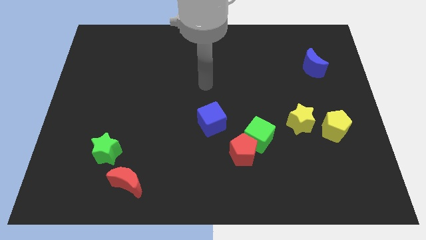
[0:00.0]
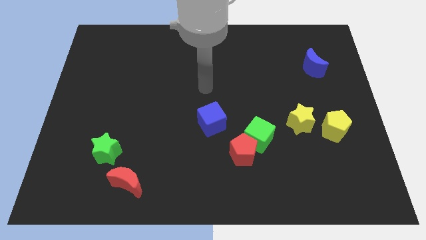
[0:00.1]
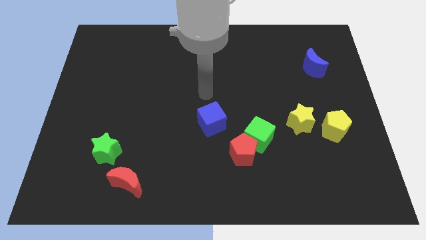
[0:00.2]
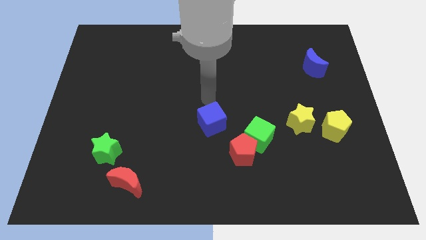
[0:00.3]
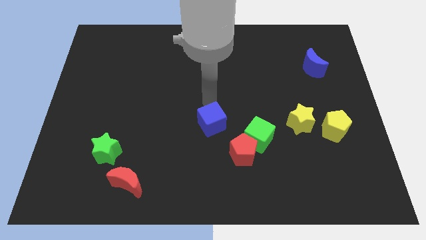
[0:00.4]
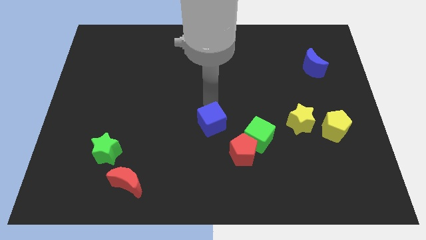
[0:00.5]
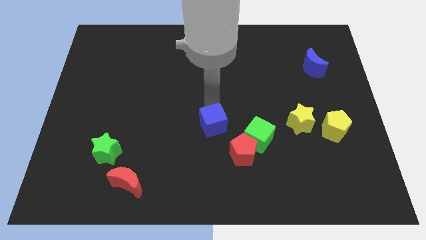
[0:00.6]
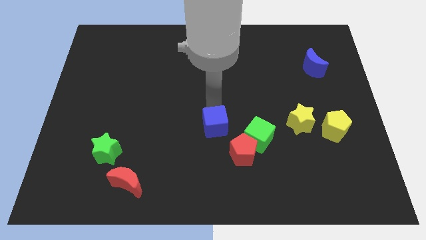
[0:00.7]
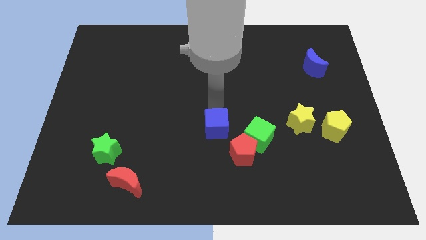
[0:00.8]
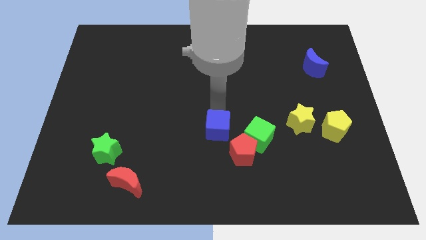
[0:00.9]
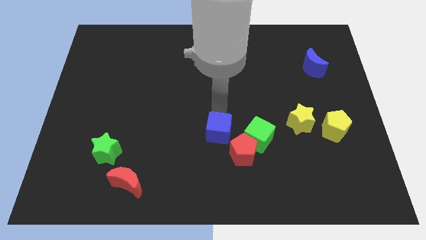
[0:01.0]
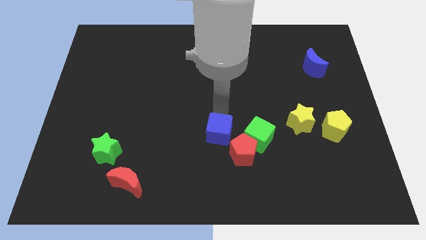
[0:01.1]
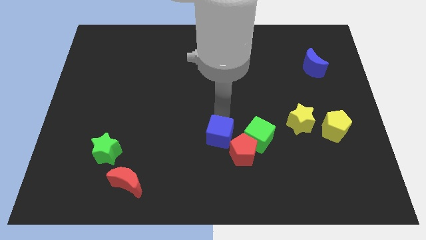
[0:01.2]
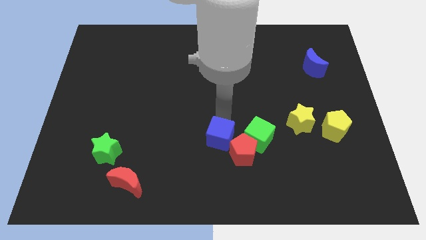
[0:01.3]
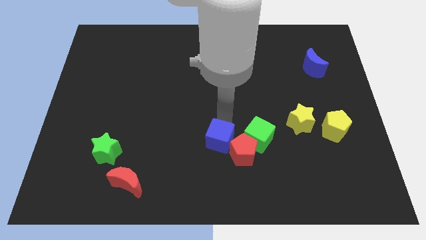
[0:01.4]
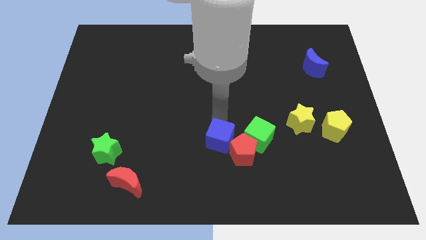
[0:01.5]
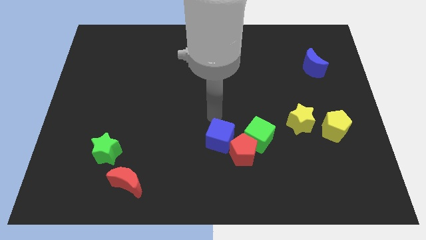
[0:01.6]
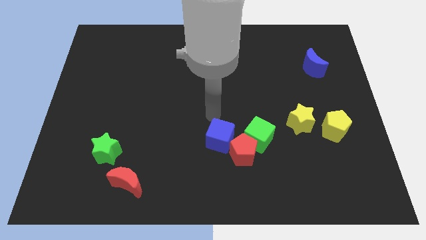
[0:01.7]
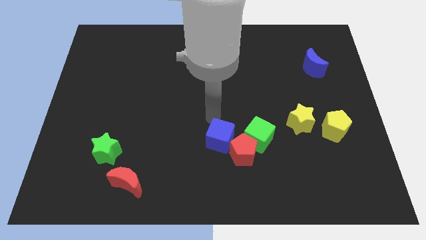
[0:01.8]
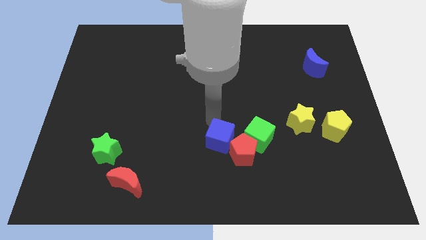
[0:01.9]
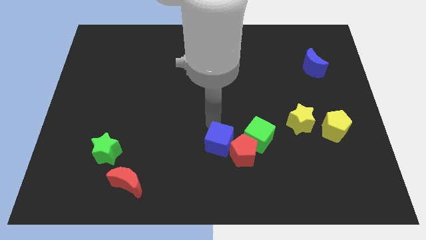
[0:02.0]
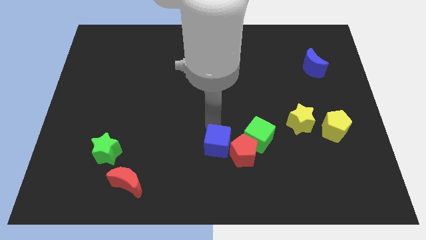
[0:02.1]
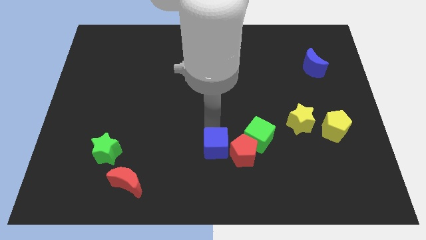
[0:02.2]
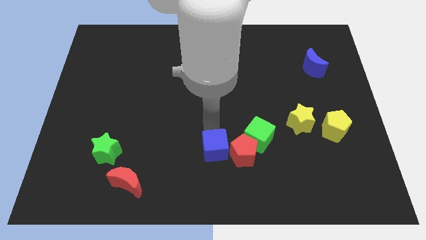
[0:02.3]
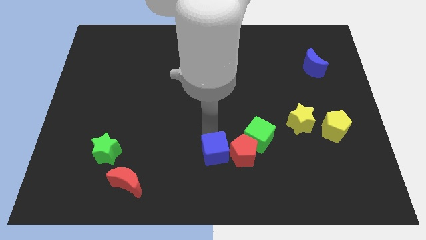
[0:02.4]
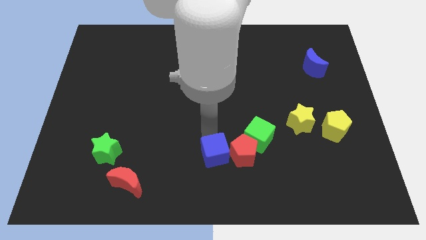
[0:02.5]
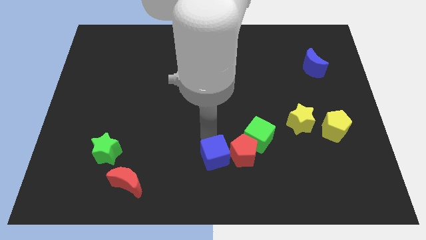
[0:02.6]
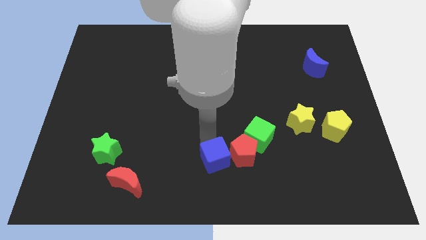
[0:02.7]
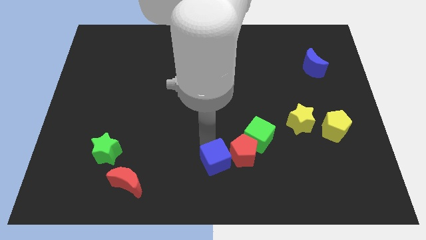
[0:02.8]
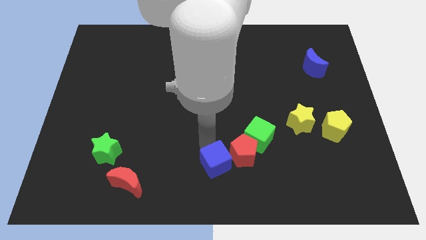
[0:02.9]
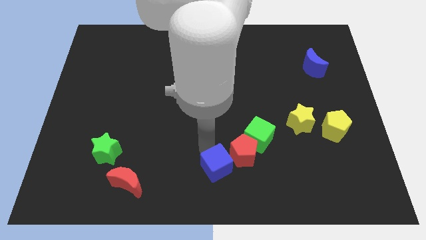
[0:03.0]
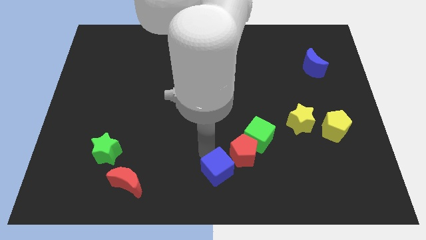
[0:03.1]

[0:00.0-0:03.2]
push the blue cube down and then to the right a little

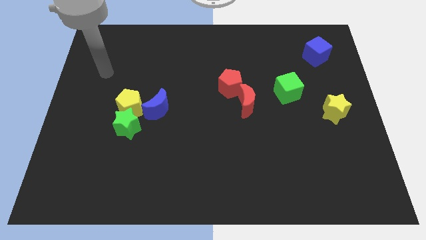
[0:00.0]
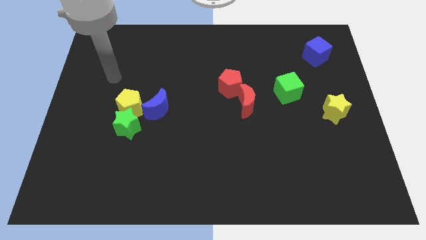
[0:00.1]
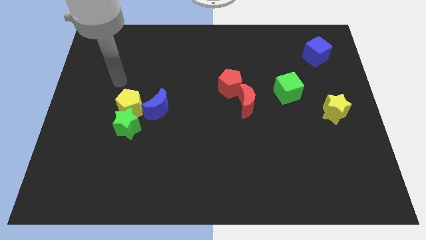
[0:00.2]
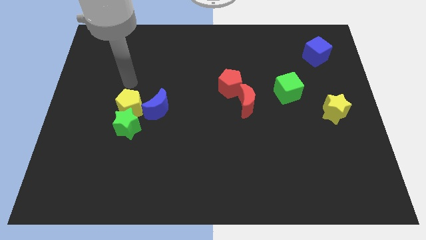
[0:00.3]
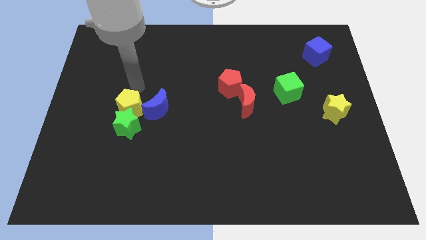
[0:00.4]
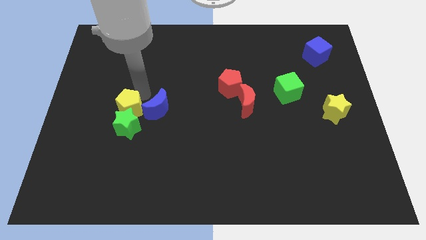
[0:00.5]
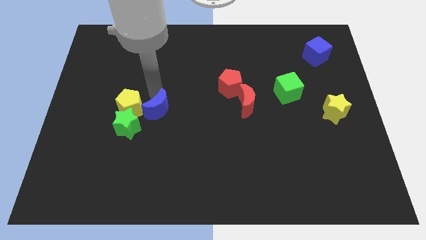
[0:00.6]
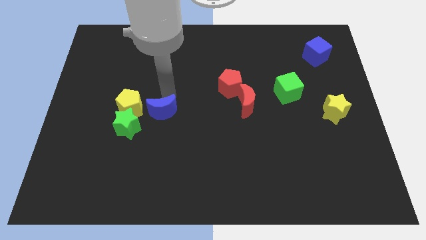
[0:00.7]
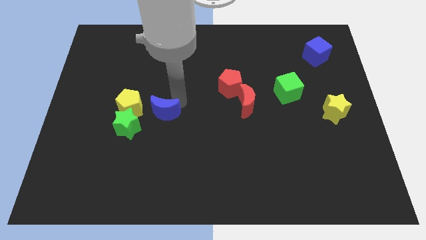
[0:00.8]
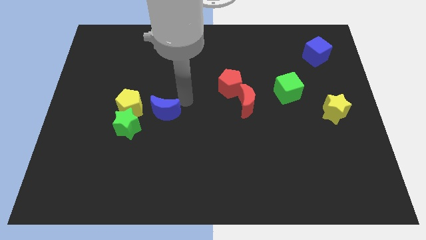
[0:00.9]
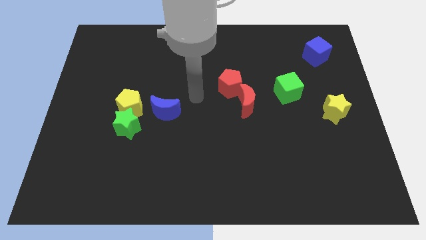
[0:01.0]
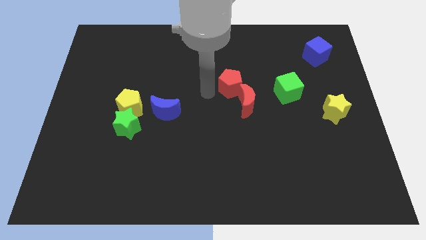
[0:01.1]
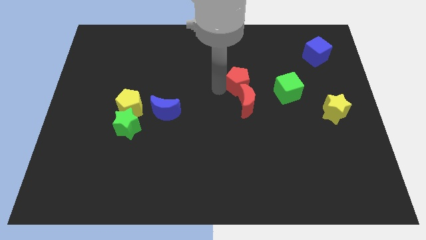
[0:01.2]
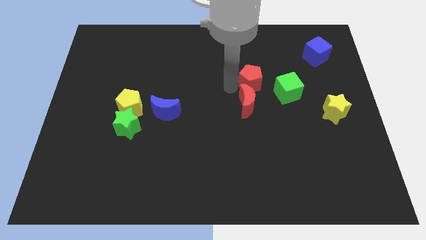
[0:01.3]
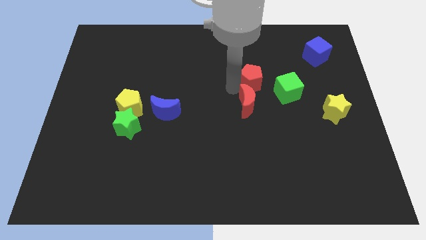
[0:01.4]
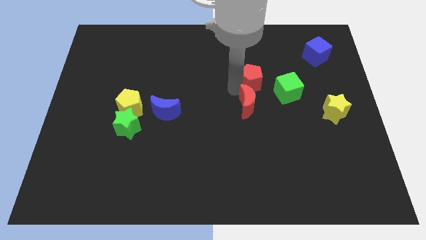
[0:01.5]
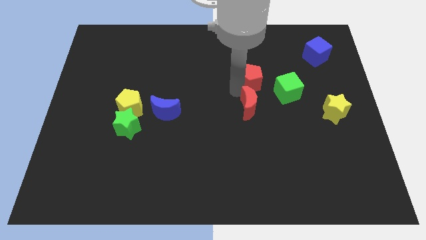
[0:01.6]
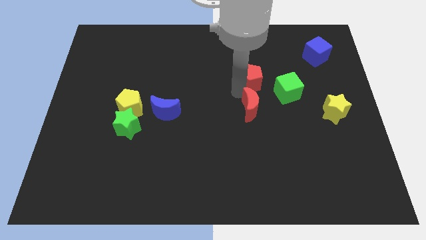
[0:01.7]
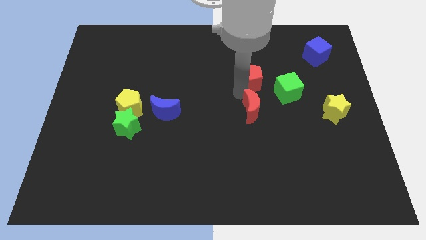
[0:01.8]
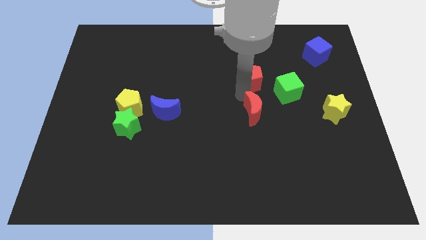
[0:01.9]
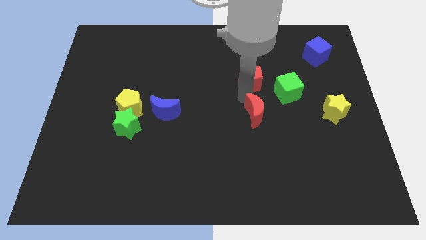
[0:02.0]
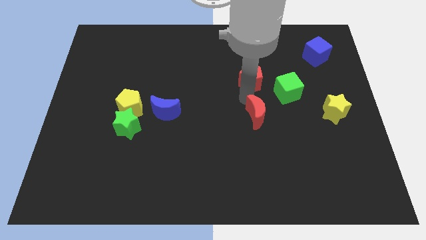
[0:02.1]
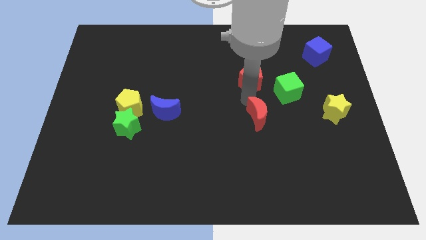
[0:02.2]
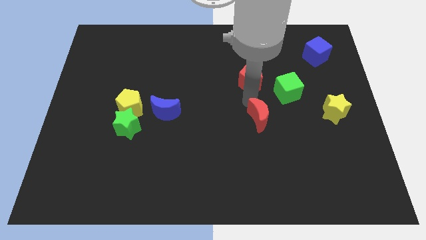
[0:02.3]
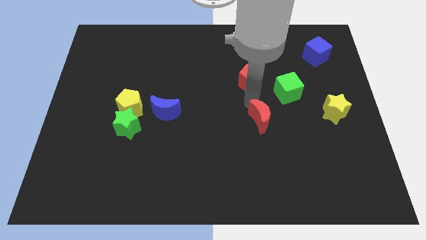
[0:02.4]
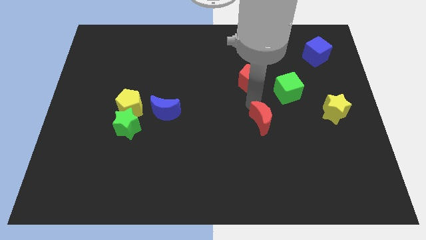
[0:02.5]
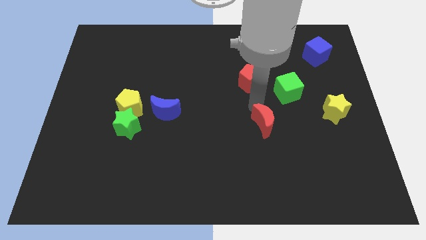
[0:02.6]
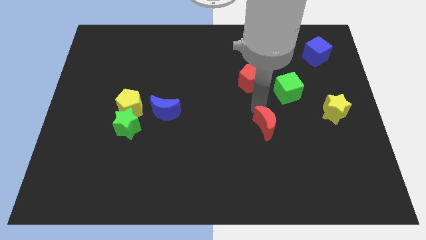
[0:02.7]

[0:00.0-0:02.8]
slide the red moon diagonally downwards and to the right a little

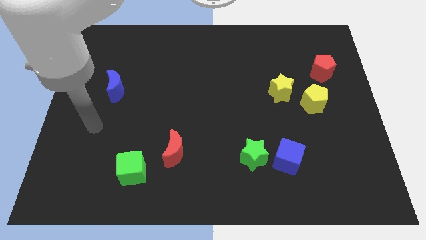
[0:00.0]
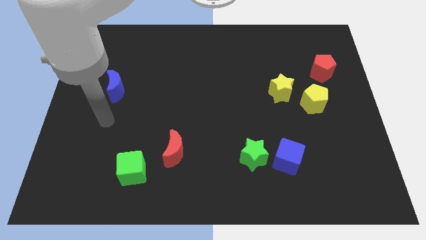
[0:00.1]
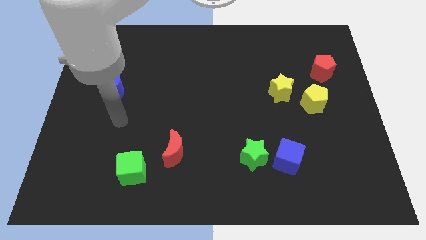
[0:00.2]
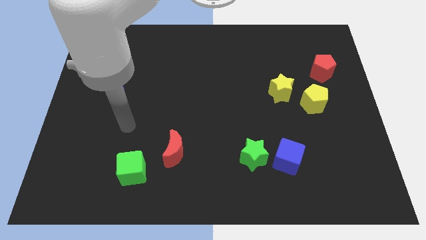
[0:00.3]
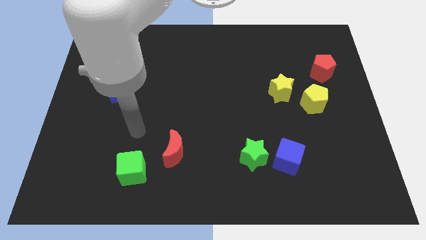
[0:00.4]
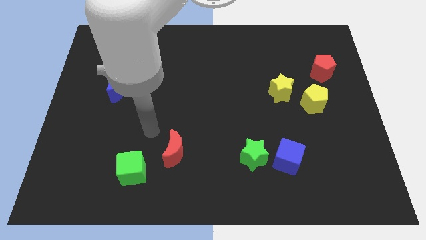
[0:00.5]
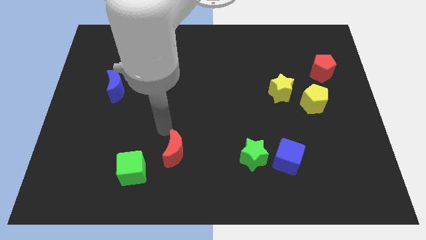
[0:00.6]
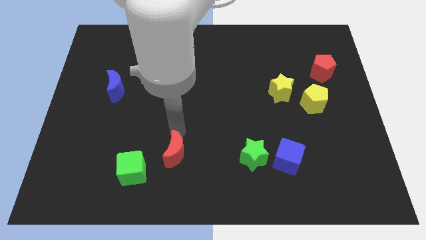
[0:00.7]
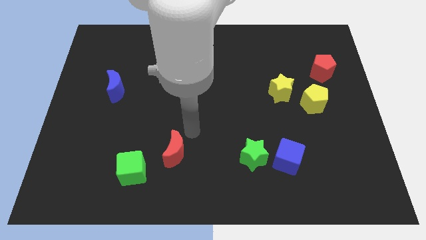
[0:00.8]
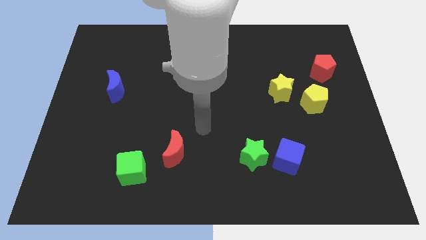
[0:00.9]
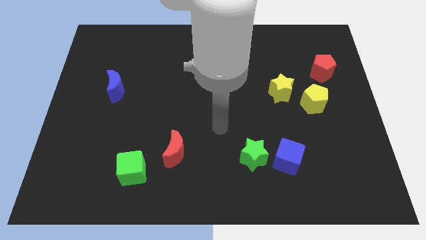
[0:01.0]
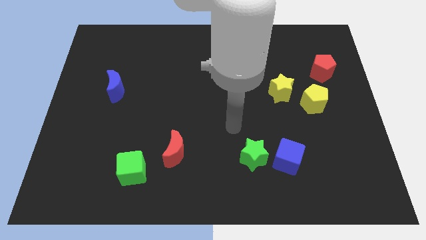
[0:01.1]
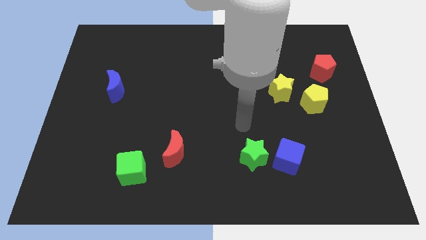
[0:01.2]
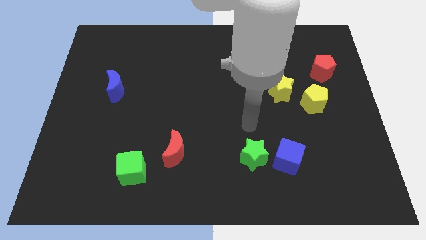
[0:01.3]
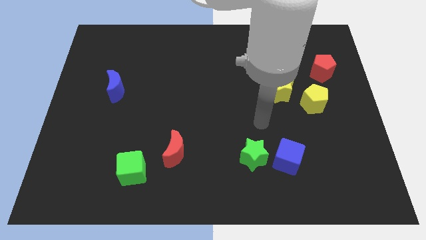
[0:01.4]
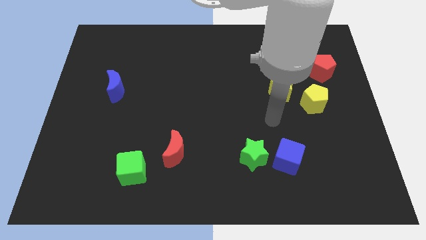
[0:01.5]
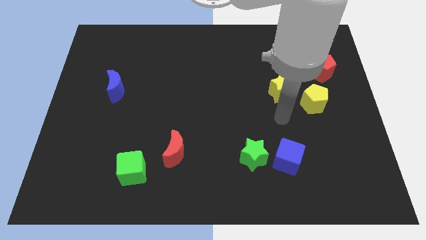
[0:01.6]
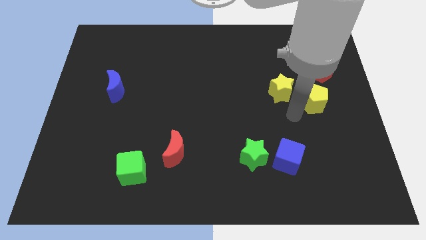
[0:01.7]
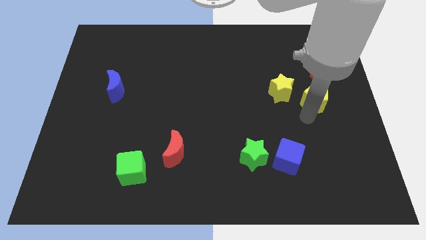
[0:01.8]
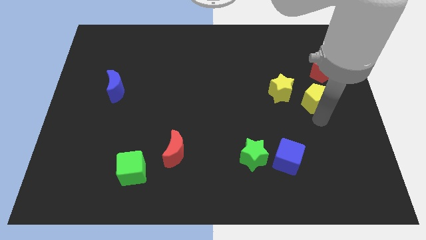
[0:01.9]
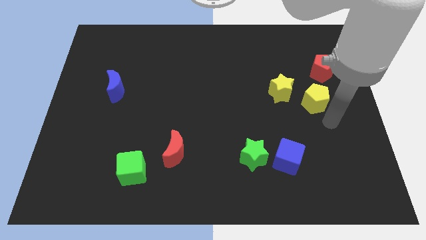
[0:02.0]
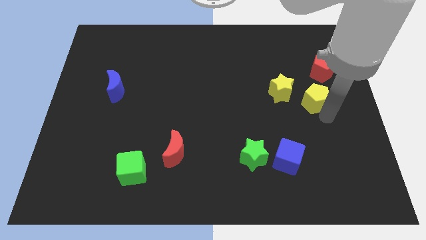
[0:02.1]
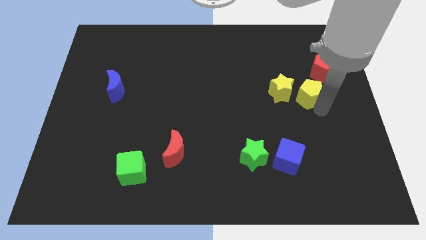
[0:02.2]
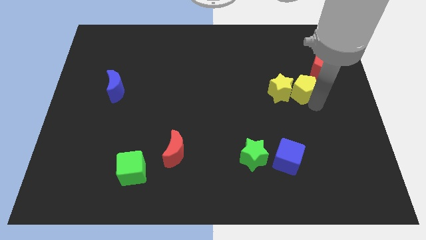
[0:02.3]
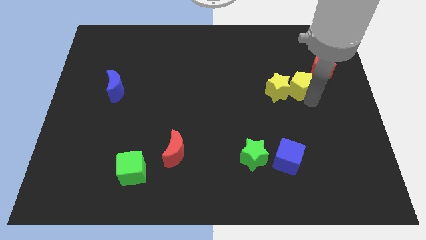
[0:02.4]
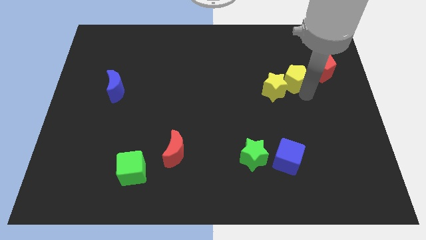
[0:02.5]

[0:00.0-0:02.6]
move the yellow pentagon up and left diagonally a little bit
